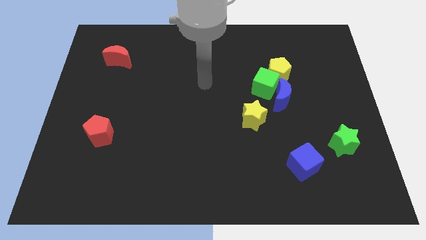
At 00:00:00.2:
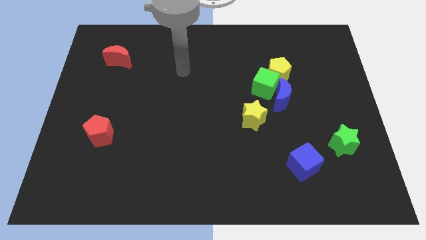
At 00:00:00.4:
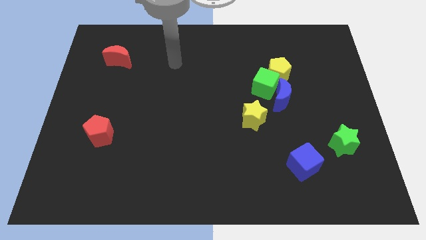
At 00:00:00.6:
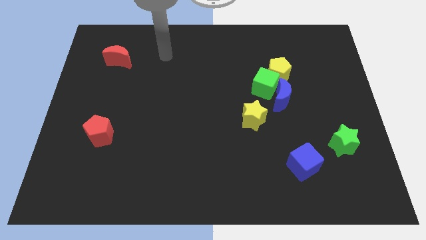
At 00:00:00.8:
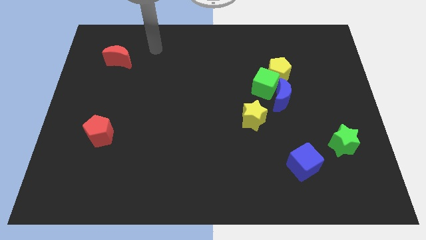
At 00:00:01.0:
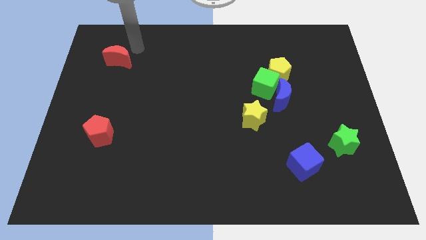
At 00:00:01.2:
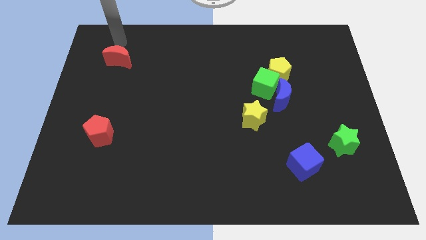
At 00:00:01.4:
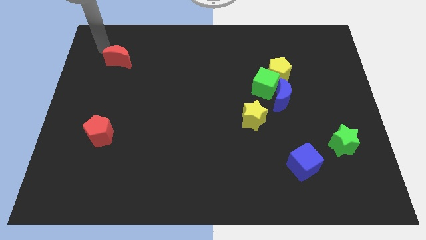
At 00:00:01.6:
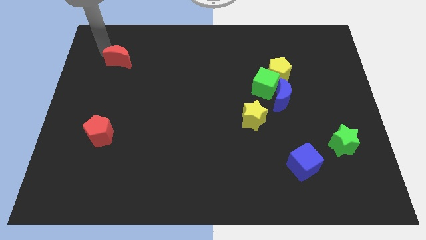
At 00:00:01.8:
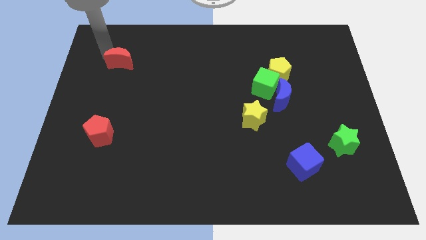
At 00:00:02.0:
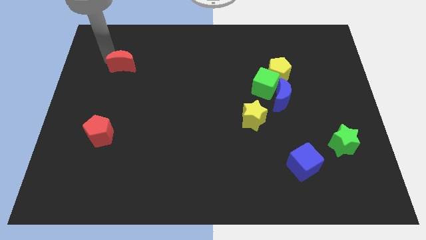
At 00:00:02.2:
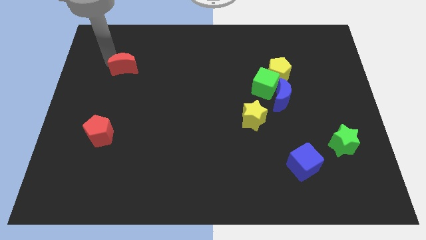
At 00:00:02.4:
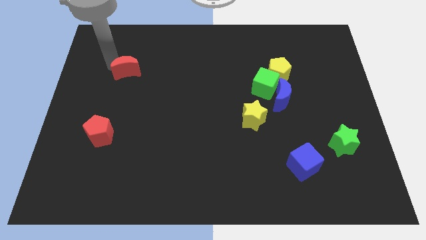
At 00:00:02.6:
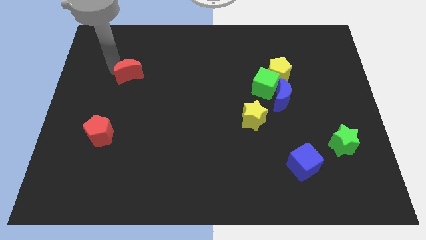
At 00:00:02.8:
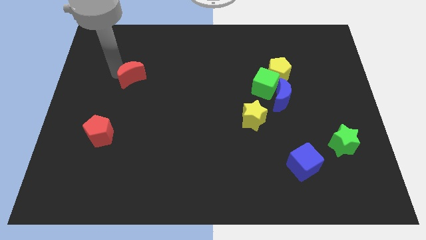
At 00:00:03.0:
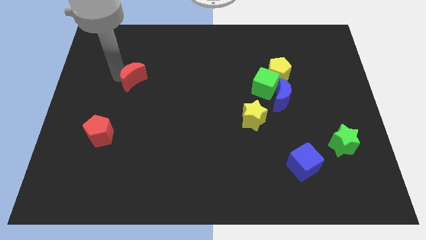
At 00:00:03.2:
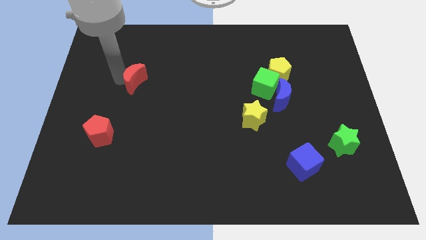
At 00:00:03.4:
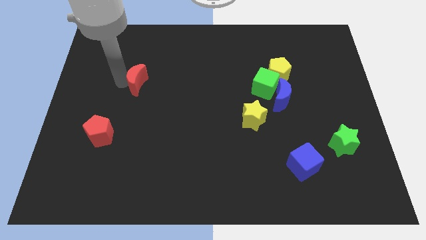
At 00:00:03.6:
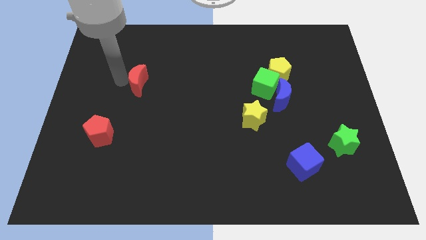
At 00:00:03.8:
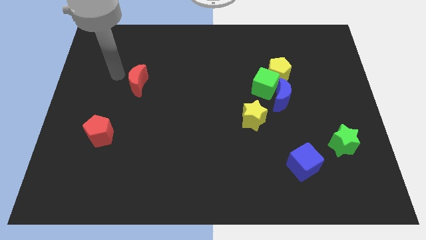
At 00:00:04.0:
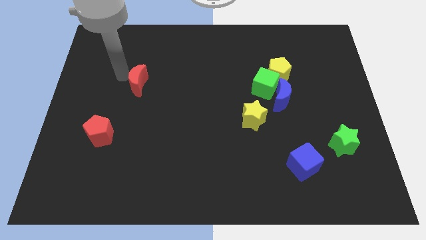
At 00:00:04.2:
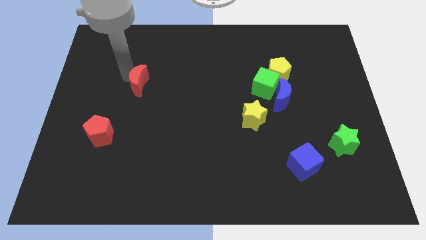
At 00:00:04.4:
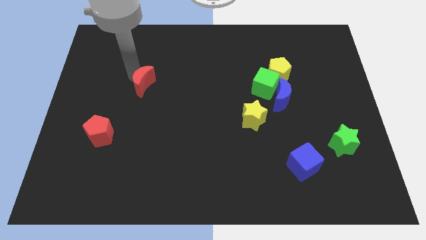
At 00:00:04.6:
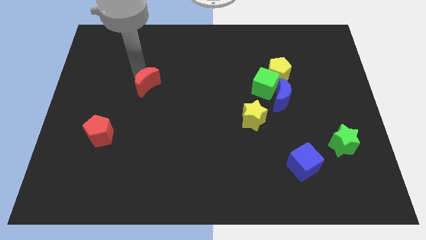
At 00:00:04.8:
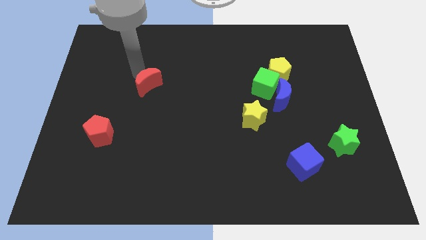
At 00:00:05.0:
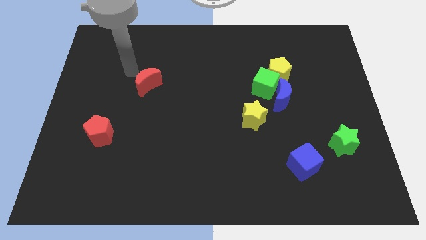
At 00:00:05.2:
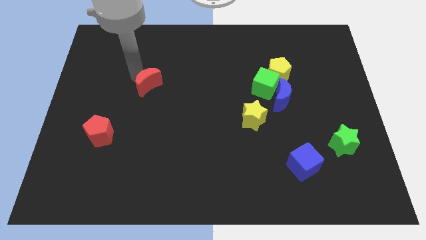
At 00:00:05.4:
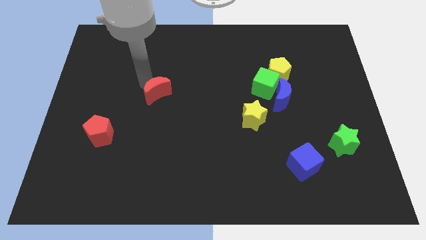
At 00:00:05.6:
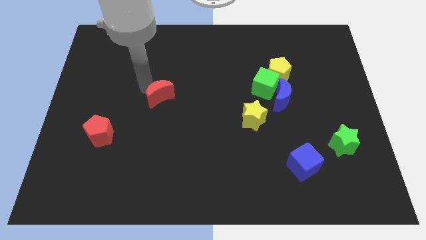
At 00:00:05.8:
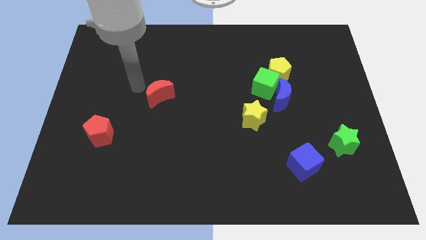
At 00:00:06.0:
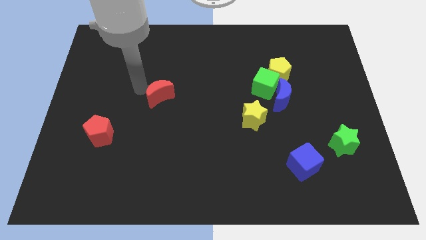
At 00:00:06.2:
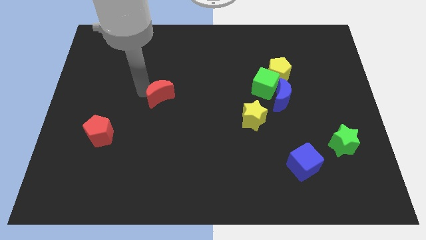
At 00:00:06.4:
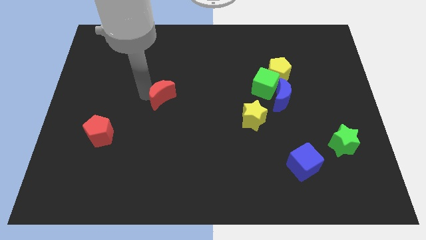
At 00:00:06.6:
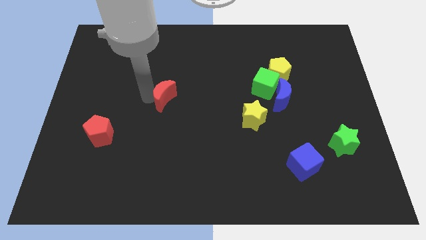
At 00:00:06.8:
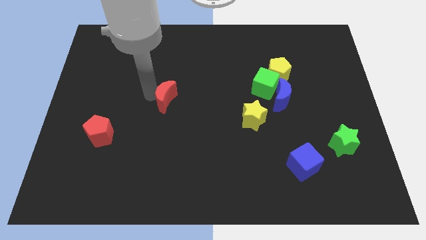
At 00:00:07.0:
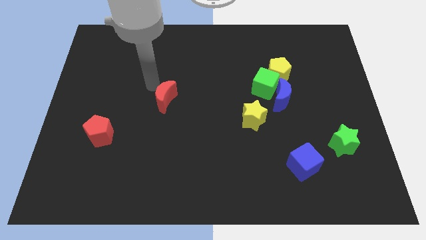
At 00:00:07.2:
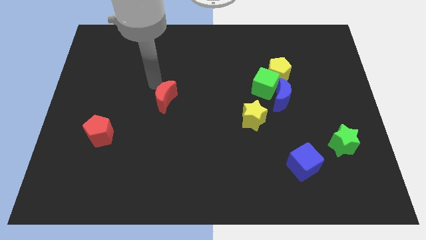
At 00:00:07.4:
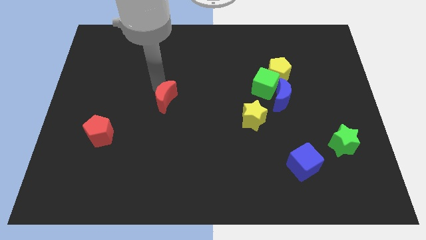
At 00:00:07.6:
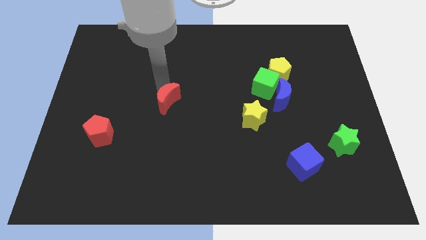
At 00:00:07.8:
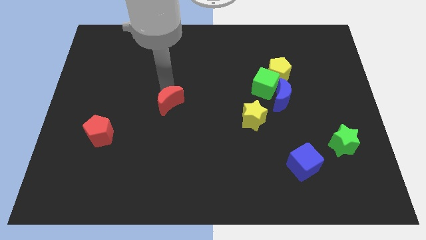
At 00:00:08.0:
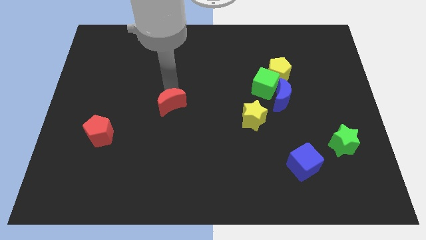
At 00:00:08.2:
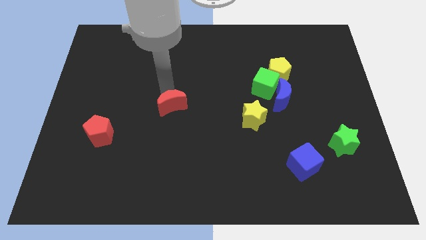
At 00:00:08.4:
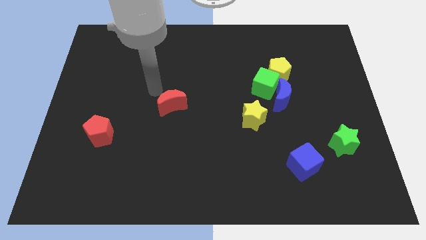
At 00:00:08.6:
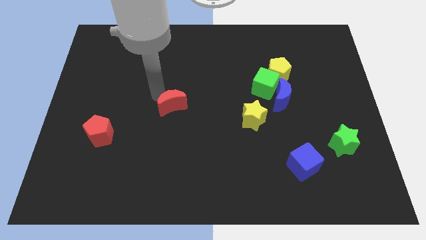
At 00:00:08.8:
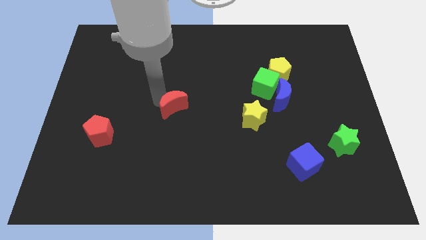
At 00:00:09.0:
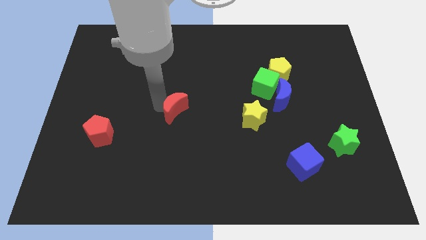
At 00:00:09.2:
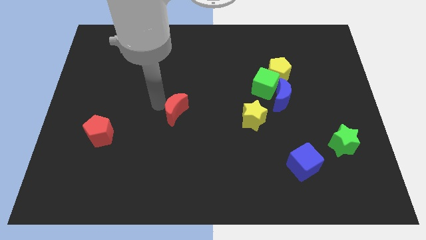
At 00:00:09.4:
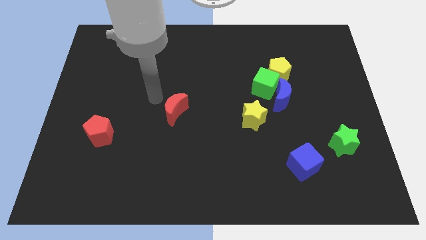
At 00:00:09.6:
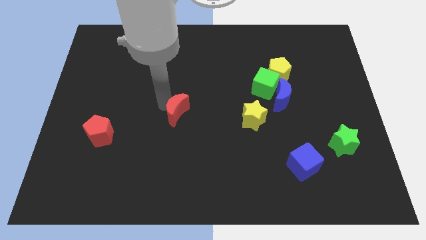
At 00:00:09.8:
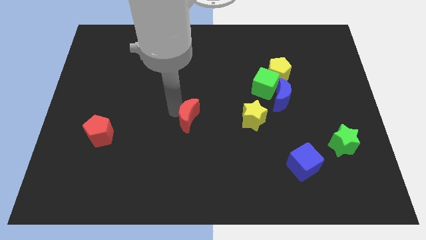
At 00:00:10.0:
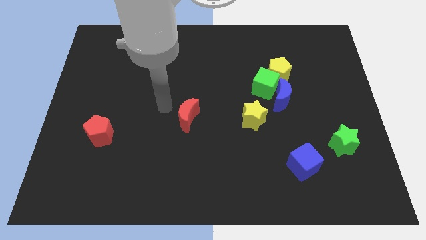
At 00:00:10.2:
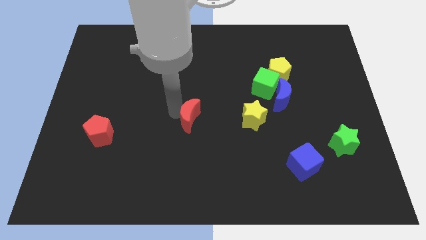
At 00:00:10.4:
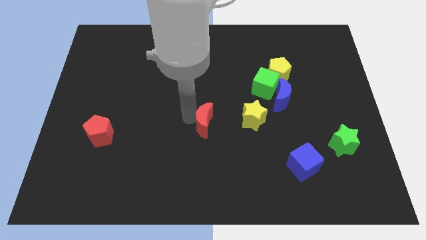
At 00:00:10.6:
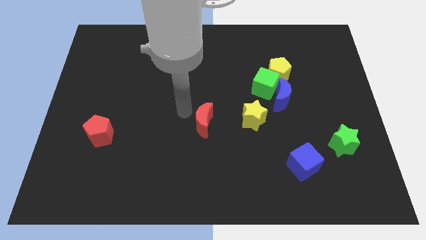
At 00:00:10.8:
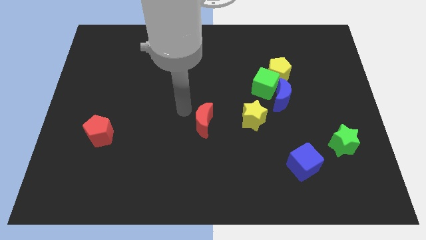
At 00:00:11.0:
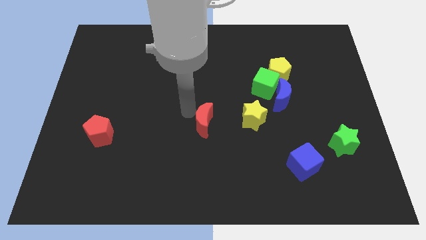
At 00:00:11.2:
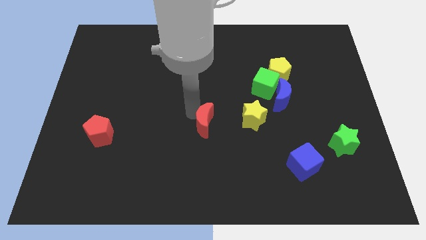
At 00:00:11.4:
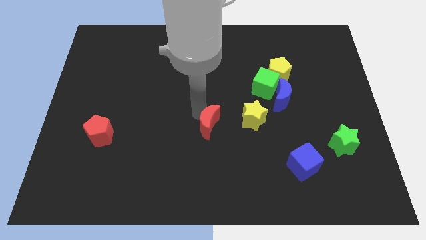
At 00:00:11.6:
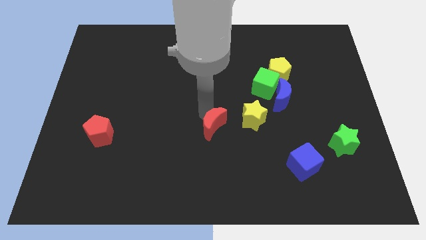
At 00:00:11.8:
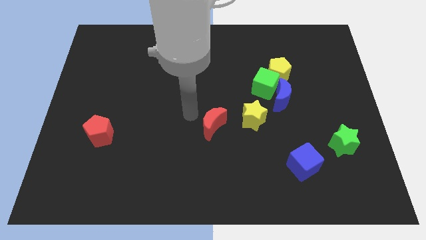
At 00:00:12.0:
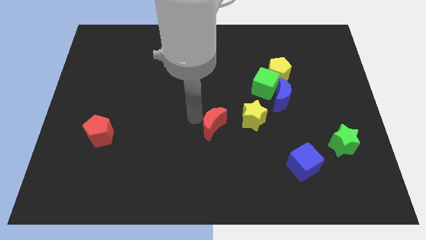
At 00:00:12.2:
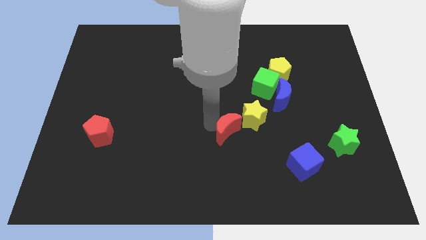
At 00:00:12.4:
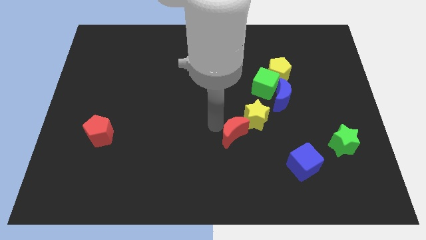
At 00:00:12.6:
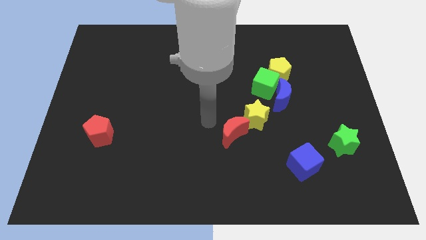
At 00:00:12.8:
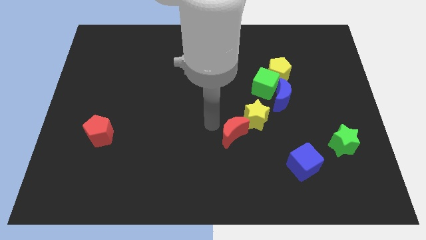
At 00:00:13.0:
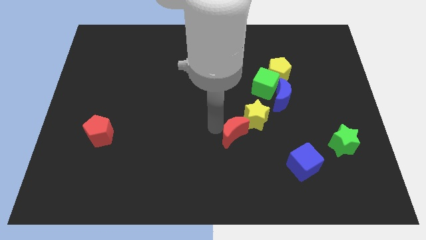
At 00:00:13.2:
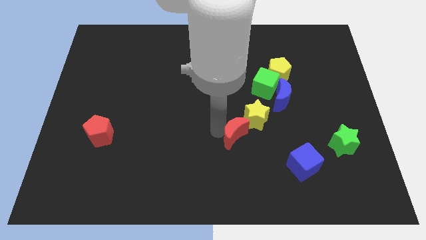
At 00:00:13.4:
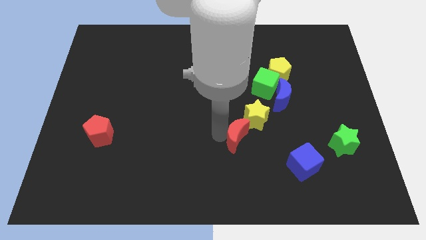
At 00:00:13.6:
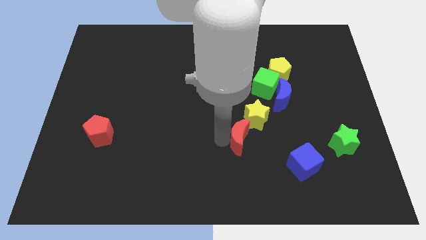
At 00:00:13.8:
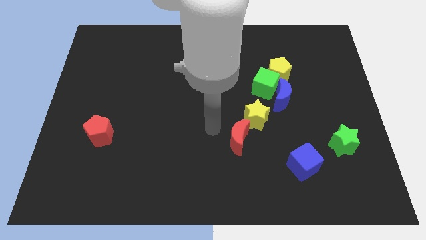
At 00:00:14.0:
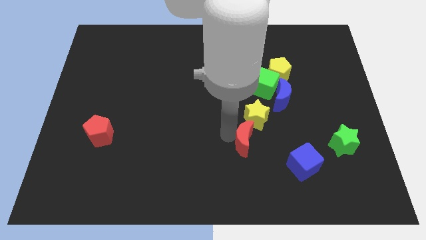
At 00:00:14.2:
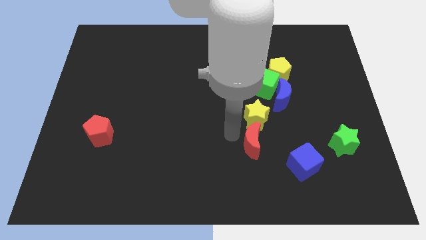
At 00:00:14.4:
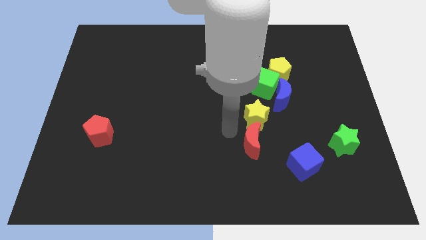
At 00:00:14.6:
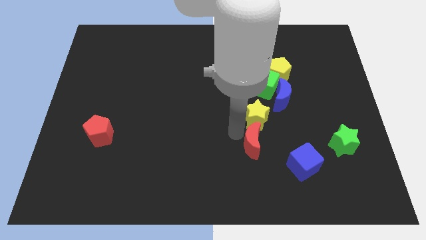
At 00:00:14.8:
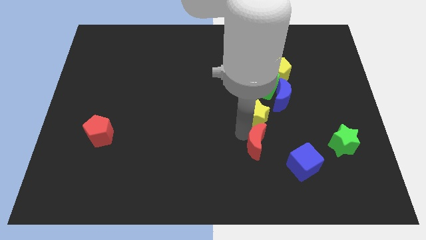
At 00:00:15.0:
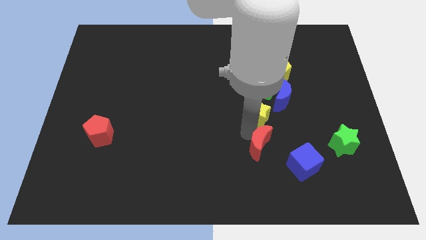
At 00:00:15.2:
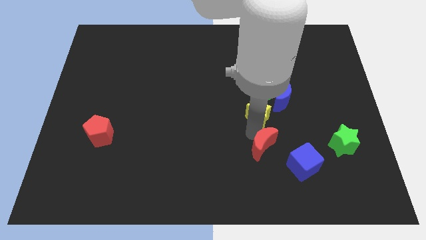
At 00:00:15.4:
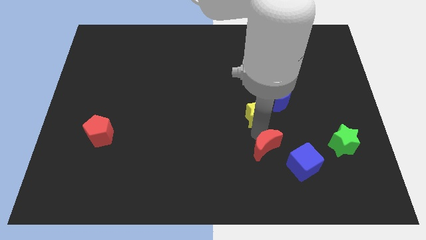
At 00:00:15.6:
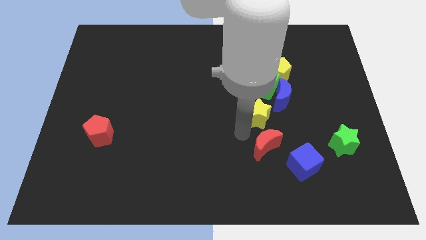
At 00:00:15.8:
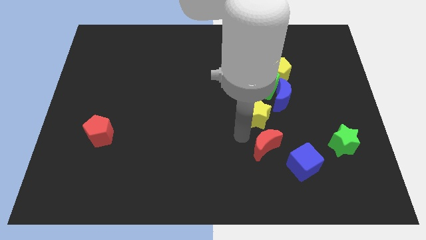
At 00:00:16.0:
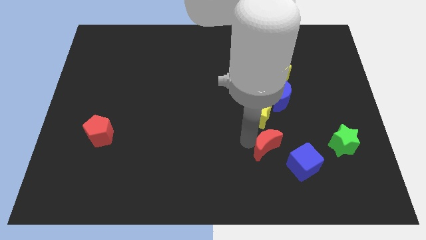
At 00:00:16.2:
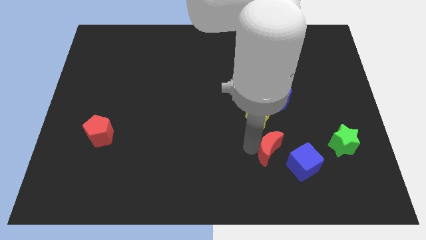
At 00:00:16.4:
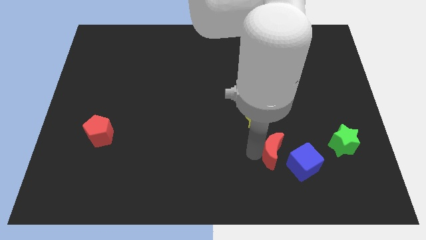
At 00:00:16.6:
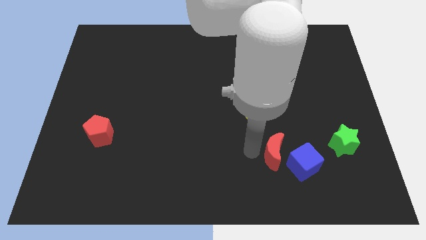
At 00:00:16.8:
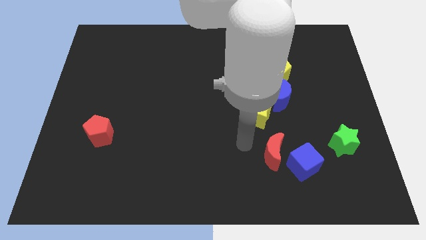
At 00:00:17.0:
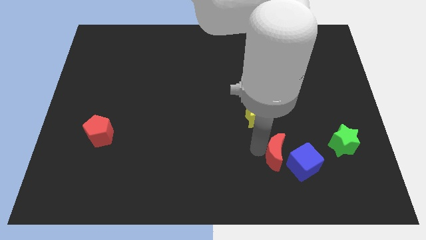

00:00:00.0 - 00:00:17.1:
push the red moon next to the blue cube
